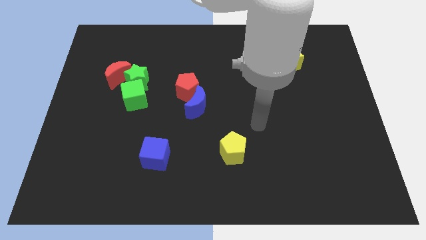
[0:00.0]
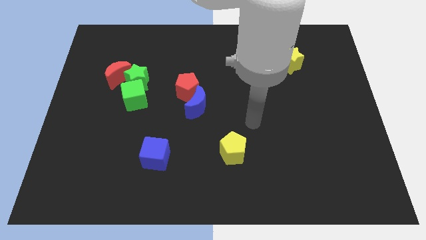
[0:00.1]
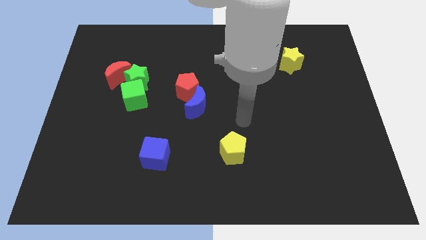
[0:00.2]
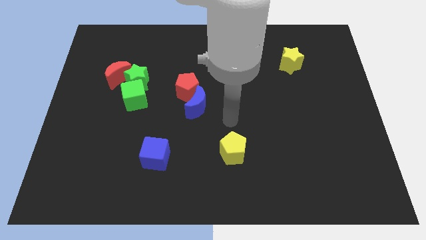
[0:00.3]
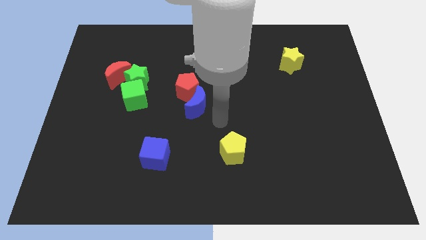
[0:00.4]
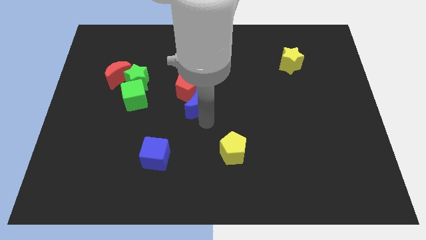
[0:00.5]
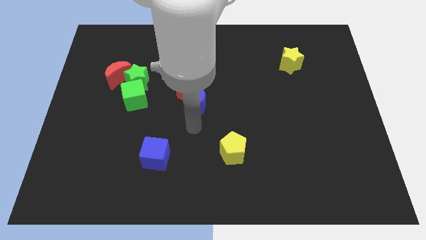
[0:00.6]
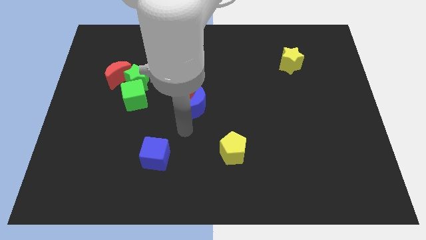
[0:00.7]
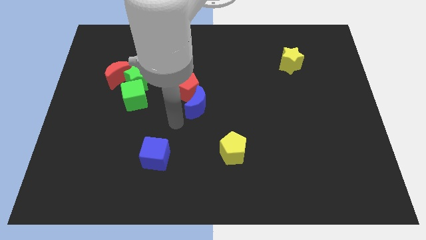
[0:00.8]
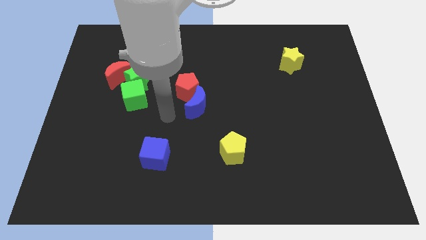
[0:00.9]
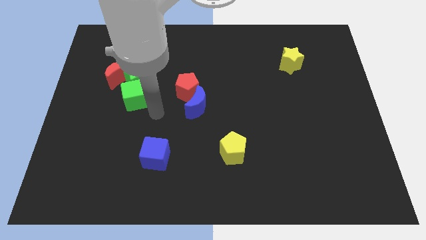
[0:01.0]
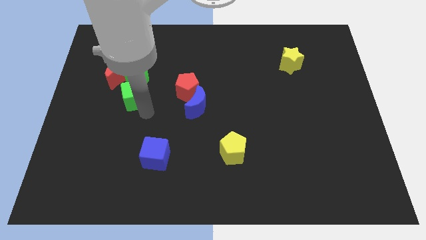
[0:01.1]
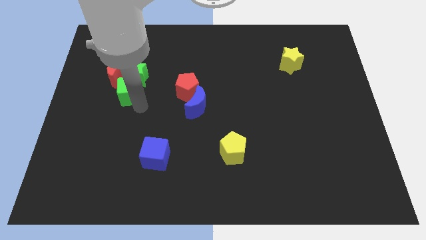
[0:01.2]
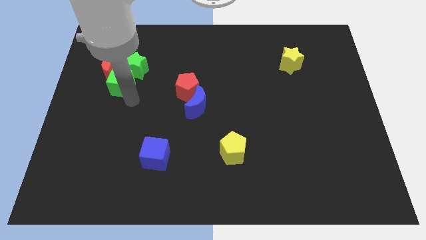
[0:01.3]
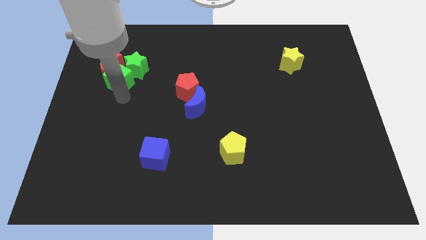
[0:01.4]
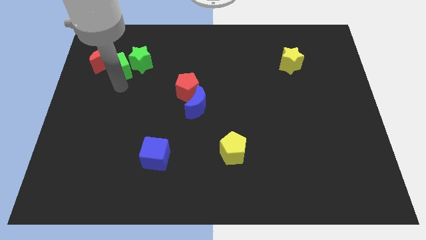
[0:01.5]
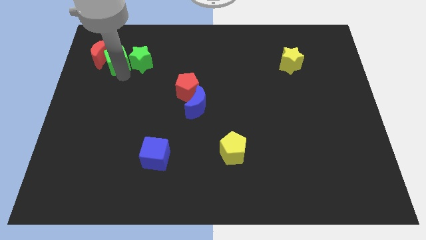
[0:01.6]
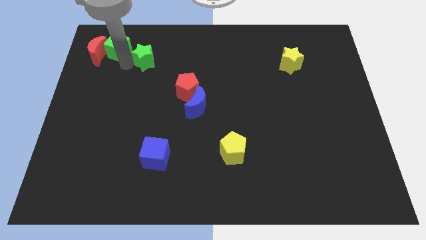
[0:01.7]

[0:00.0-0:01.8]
pull the green star apart from the green cube and red moon

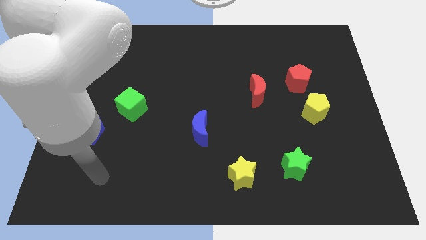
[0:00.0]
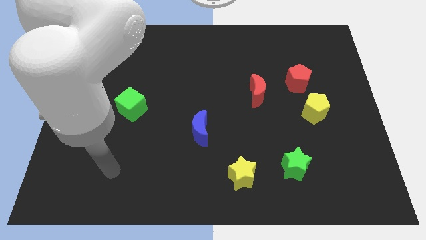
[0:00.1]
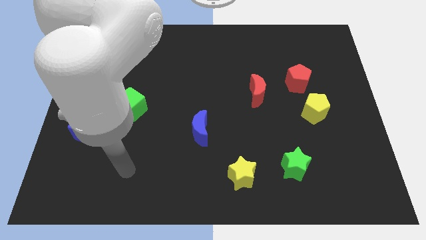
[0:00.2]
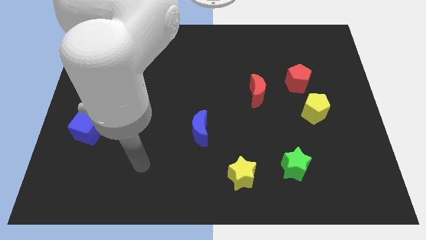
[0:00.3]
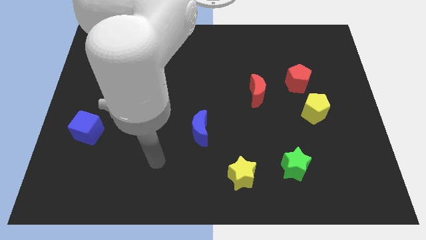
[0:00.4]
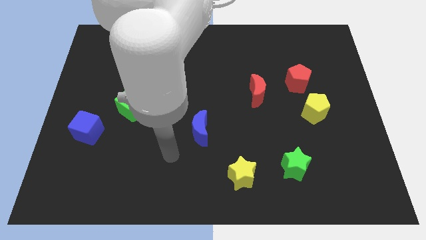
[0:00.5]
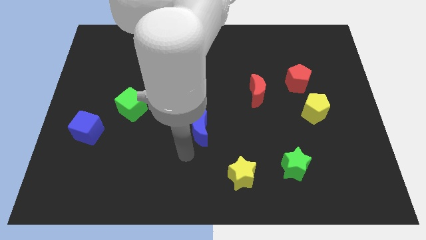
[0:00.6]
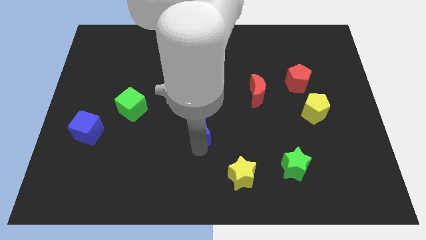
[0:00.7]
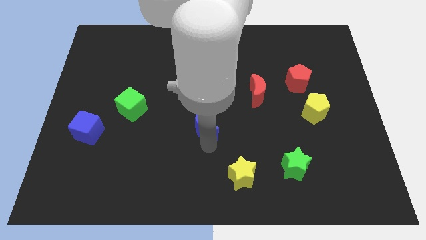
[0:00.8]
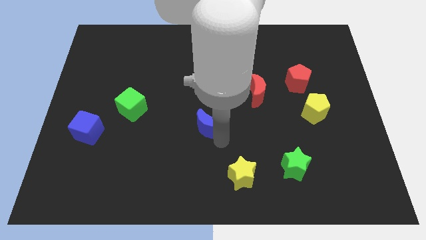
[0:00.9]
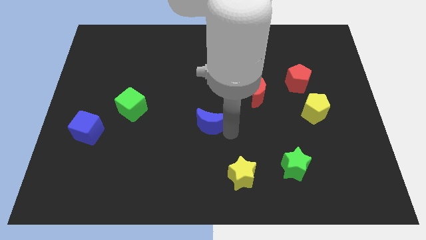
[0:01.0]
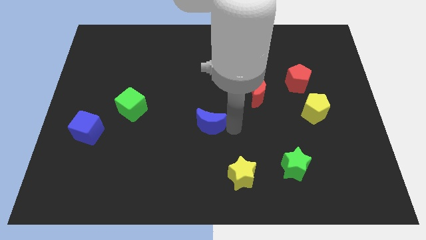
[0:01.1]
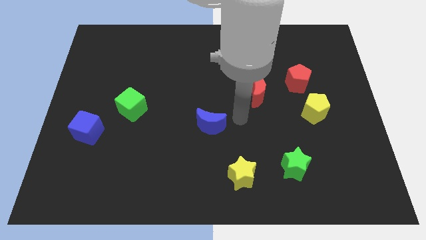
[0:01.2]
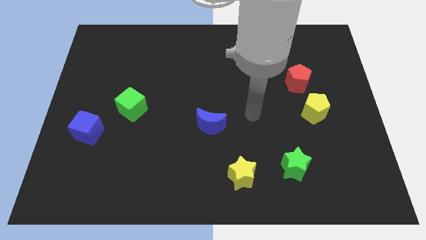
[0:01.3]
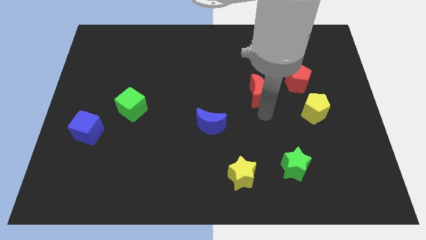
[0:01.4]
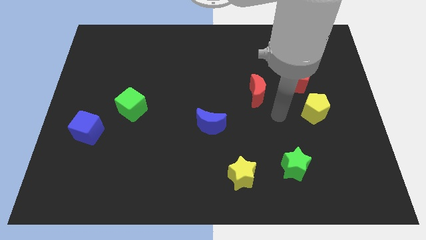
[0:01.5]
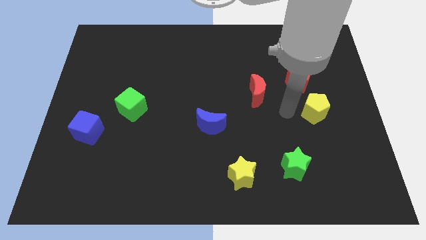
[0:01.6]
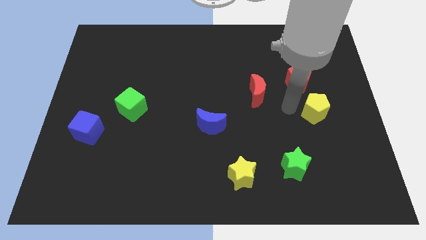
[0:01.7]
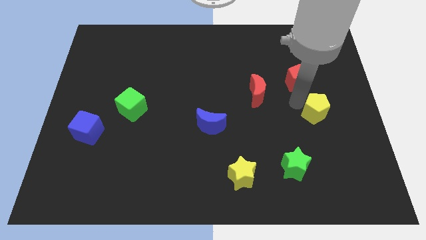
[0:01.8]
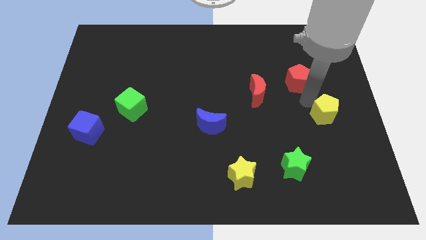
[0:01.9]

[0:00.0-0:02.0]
pull the red pentagon apart from the yellow pentagon

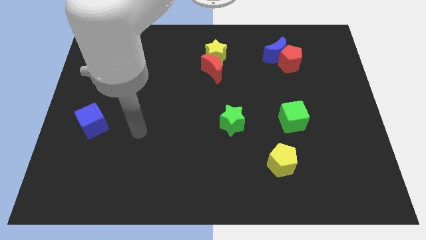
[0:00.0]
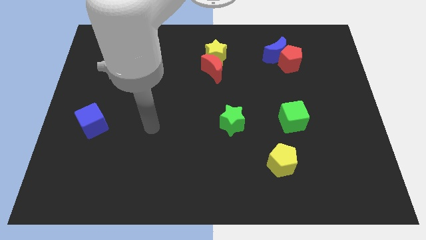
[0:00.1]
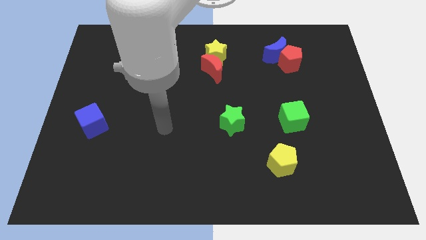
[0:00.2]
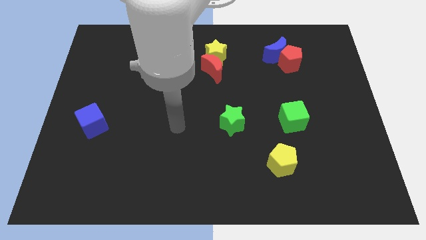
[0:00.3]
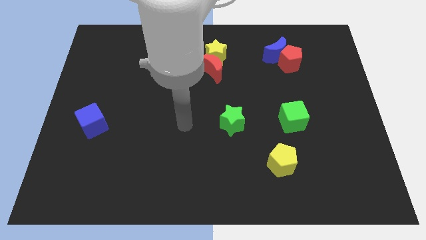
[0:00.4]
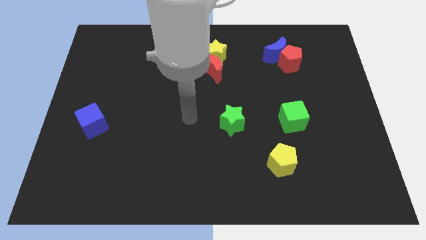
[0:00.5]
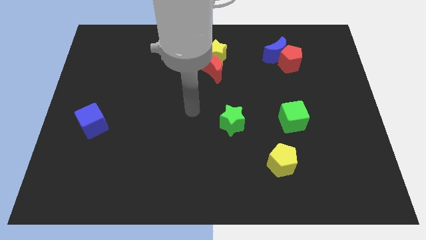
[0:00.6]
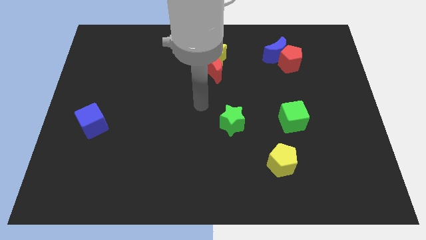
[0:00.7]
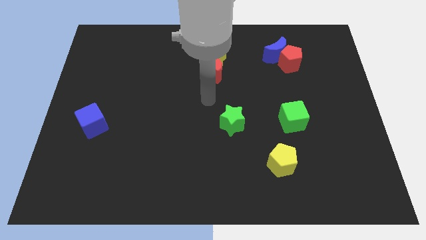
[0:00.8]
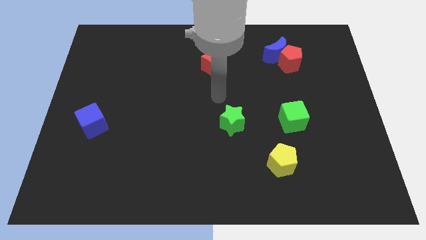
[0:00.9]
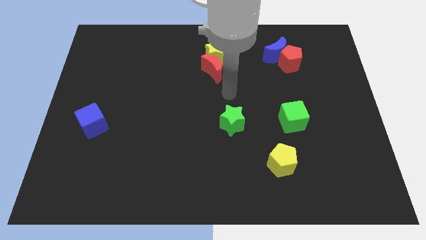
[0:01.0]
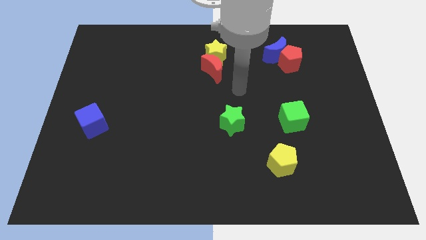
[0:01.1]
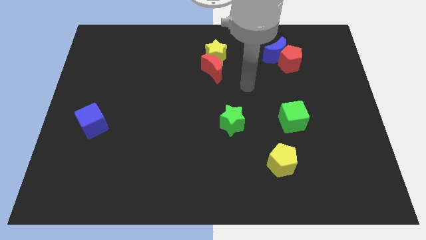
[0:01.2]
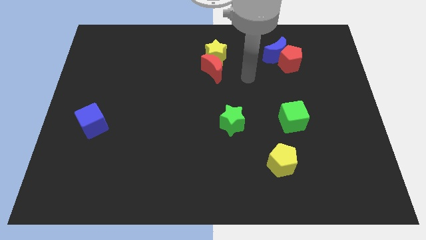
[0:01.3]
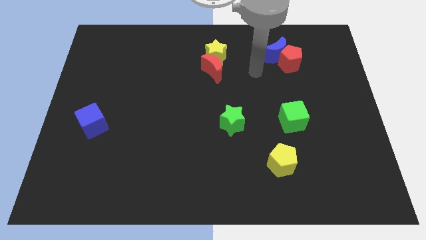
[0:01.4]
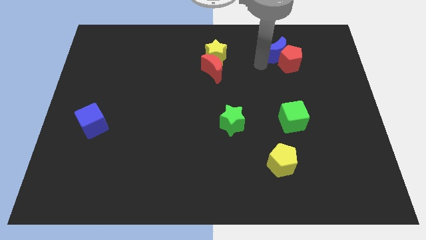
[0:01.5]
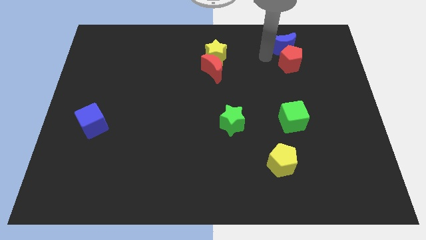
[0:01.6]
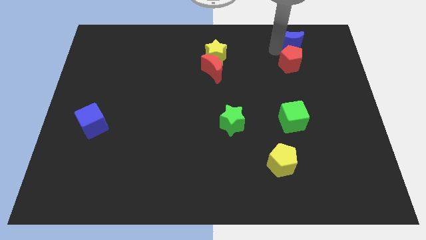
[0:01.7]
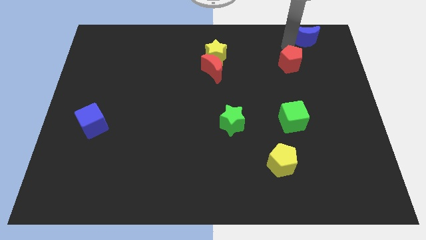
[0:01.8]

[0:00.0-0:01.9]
pull the red pentagon apart from the blue moon

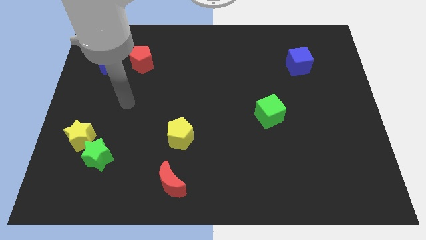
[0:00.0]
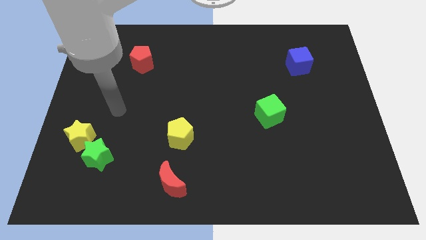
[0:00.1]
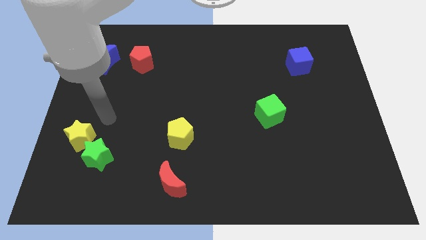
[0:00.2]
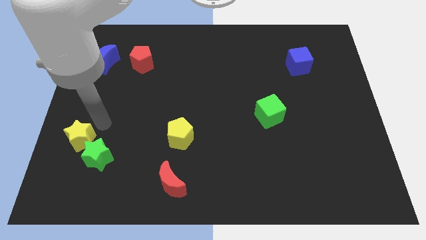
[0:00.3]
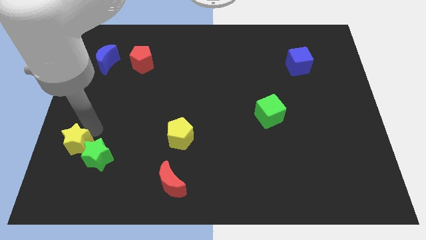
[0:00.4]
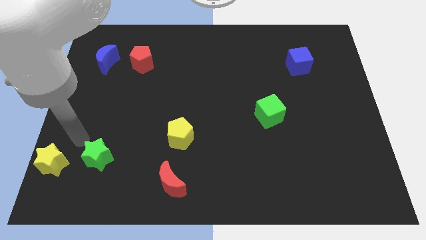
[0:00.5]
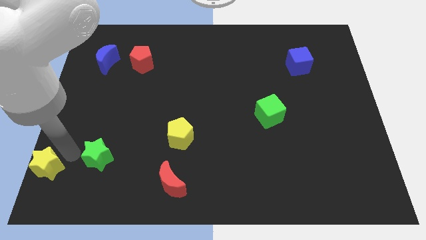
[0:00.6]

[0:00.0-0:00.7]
separate the green star from the yellow star

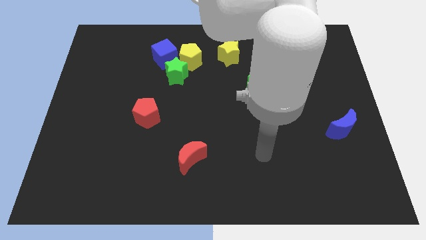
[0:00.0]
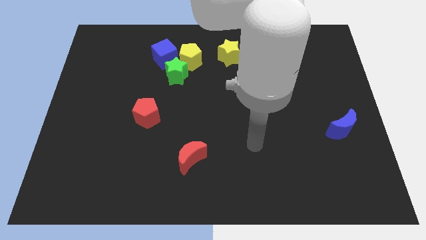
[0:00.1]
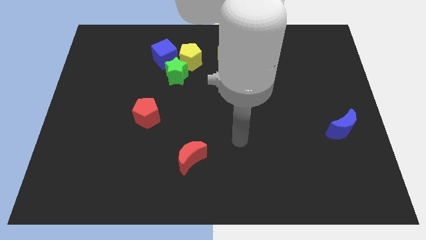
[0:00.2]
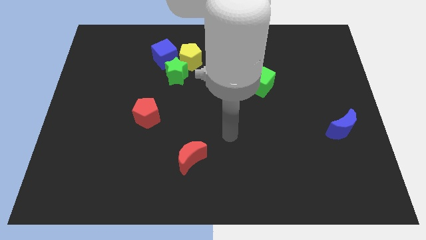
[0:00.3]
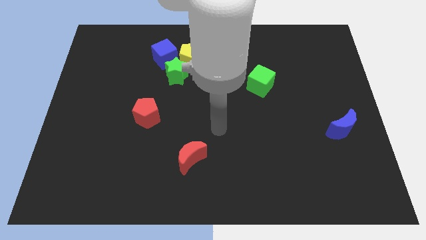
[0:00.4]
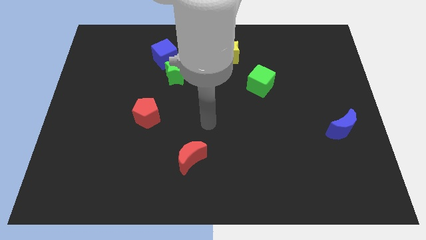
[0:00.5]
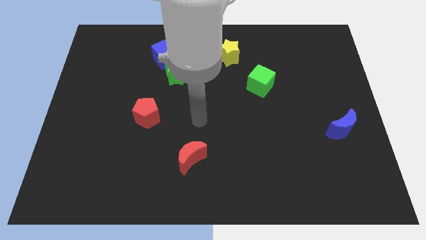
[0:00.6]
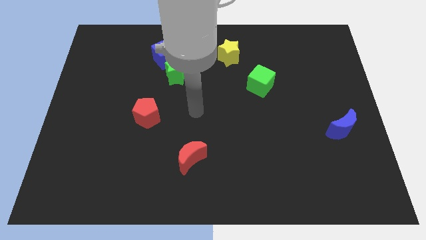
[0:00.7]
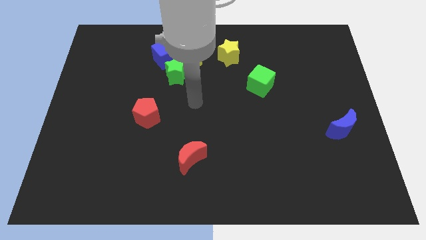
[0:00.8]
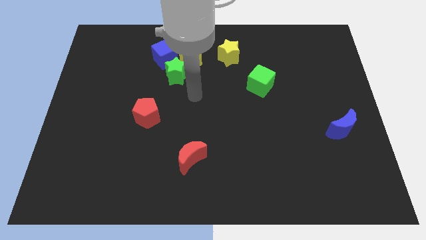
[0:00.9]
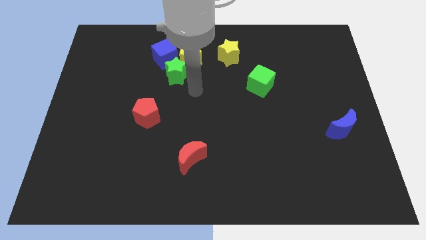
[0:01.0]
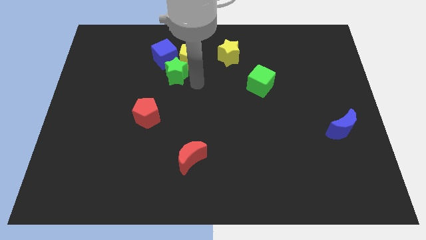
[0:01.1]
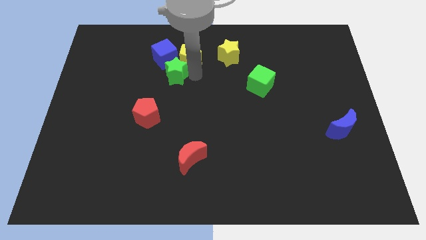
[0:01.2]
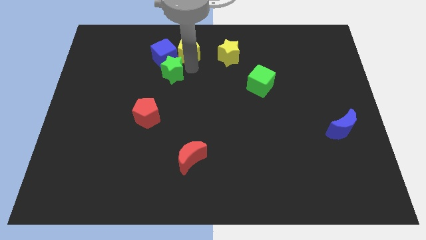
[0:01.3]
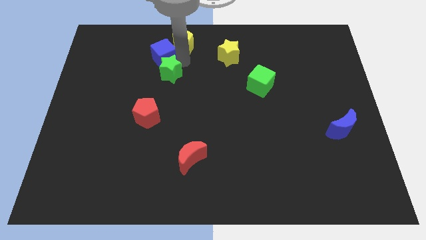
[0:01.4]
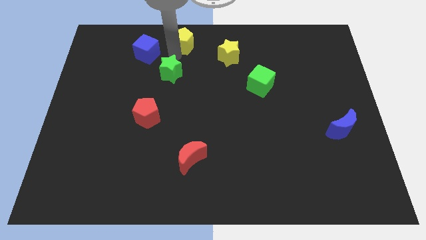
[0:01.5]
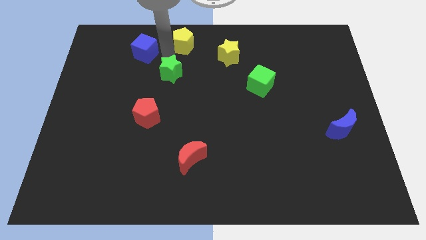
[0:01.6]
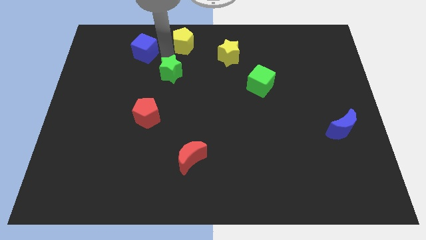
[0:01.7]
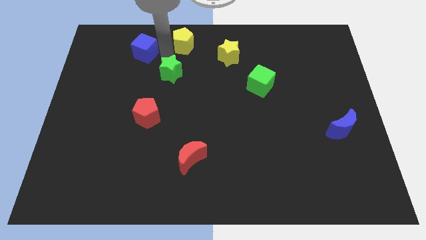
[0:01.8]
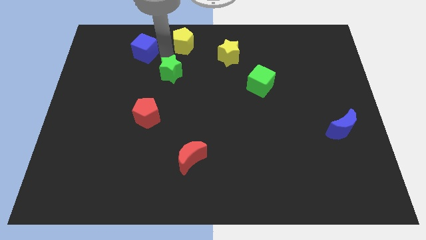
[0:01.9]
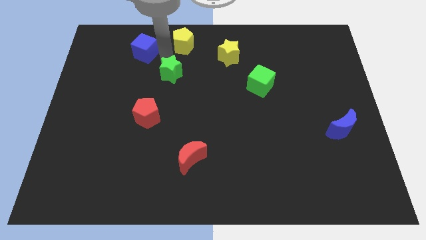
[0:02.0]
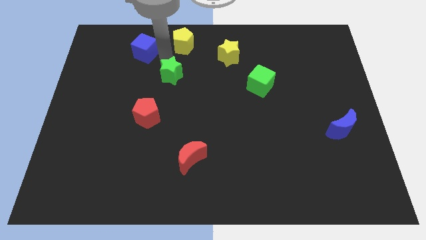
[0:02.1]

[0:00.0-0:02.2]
separate the green star from the yellow pentagon and blue cube

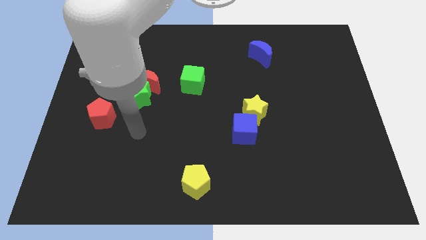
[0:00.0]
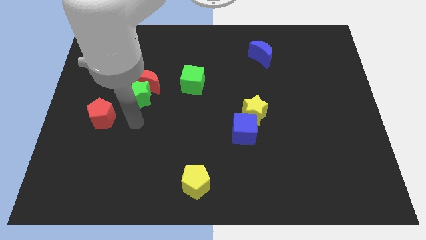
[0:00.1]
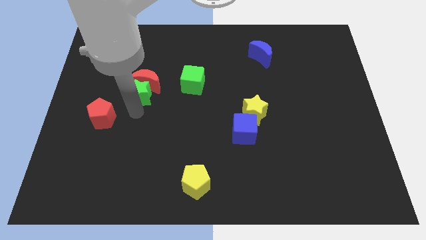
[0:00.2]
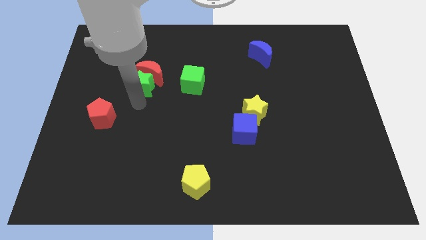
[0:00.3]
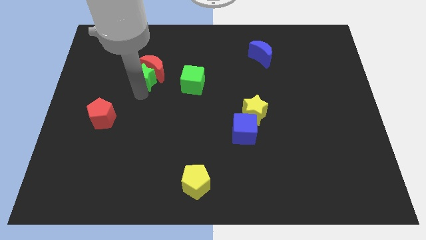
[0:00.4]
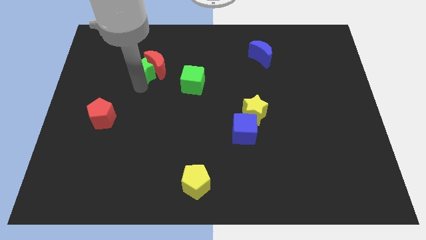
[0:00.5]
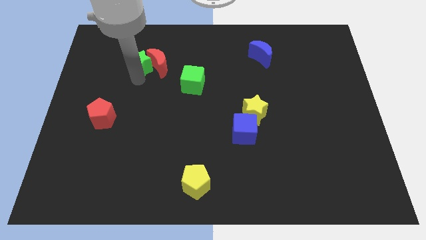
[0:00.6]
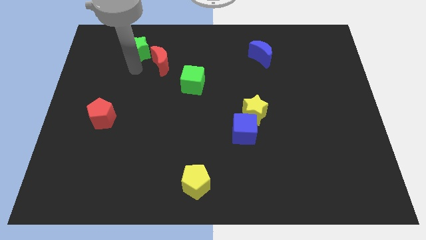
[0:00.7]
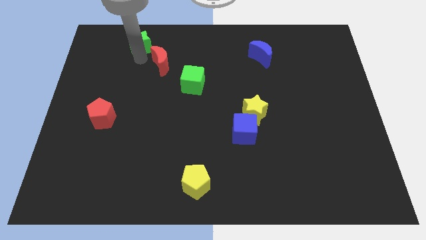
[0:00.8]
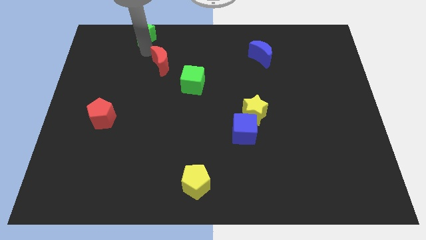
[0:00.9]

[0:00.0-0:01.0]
move the red moon away from the green star
